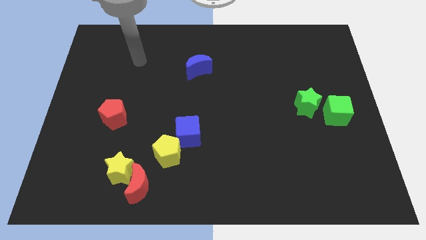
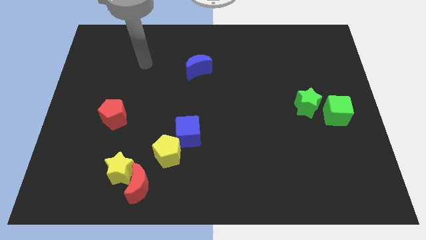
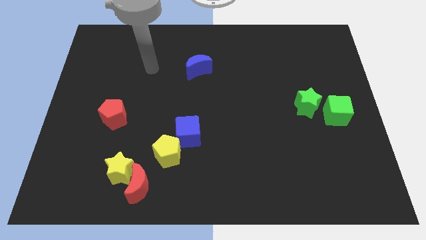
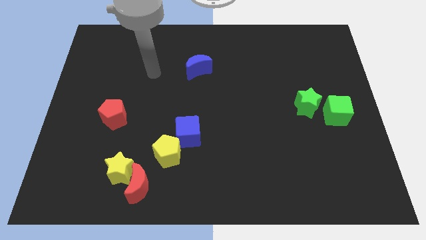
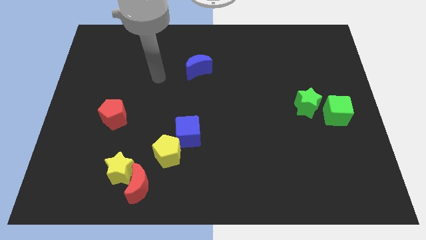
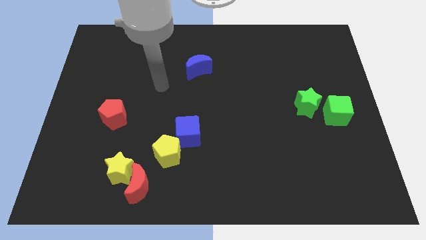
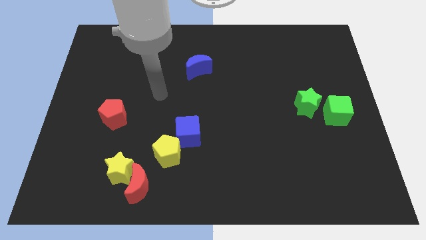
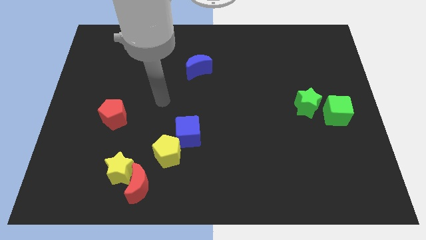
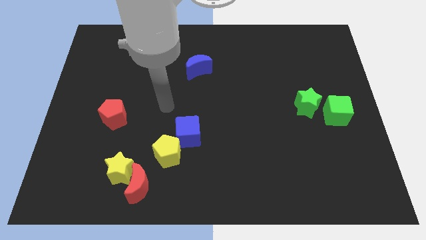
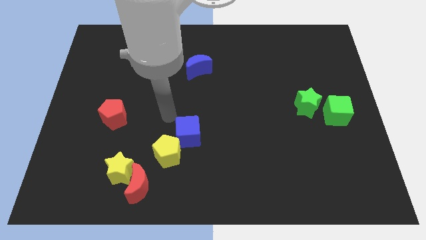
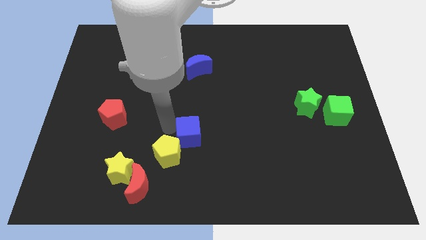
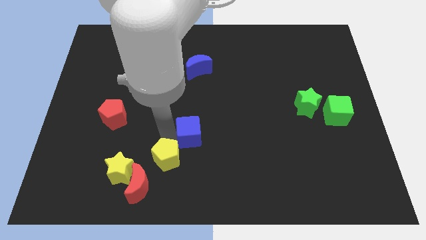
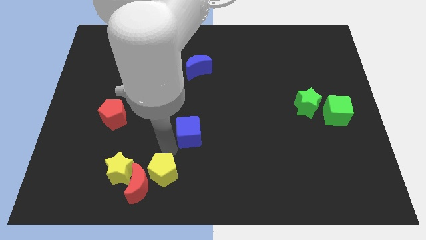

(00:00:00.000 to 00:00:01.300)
separate the blue cube from the yellow pentagon

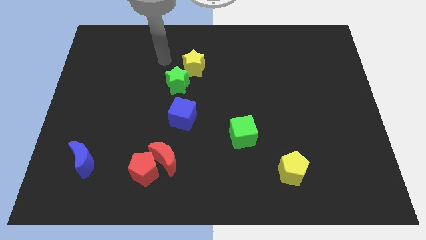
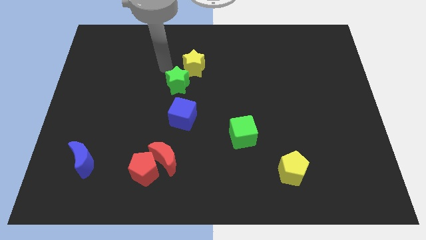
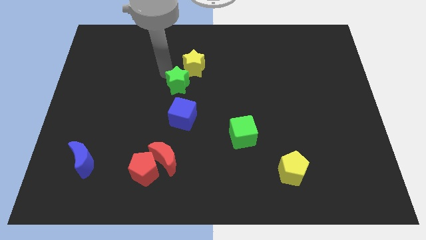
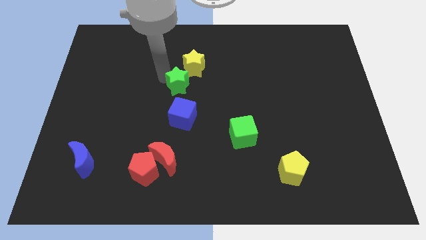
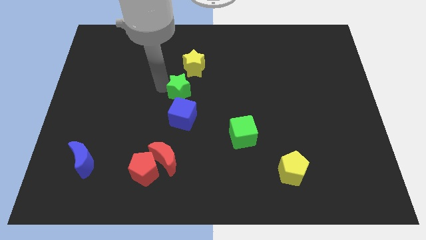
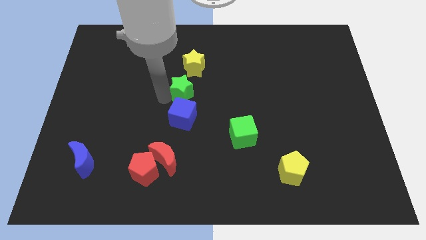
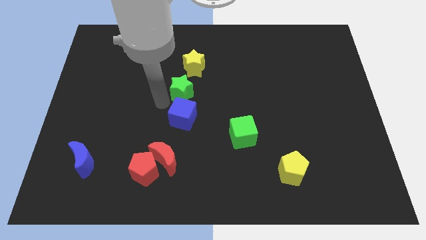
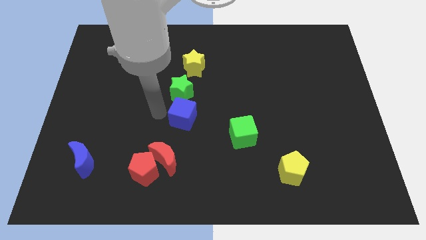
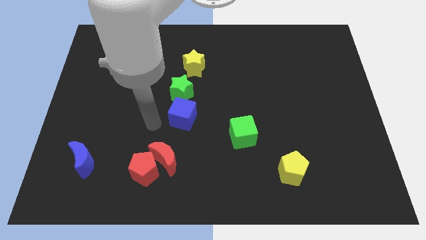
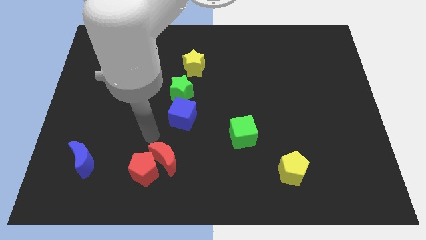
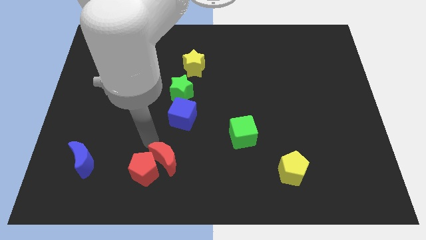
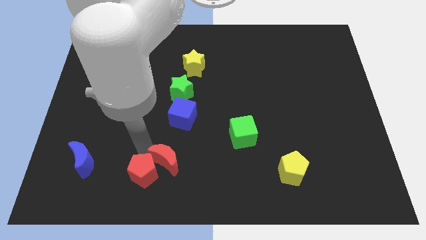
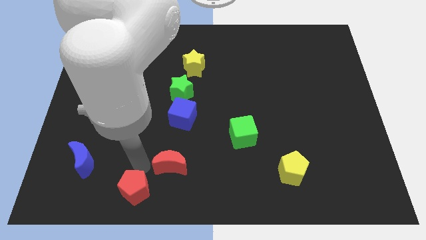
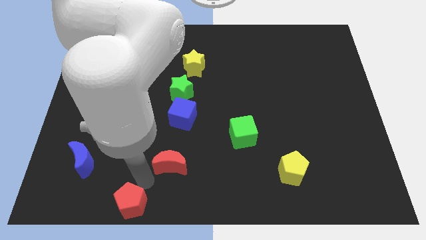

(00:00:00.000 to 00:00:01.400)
separate the red moon from the red pentagon

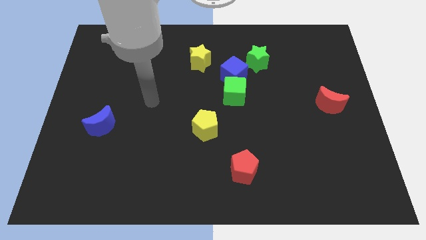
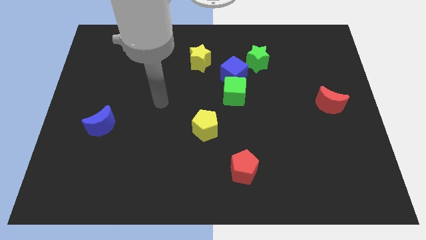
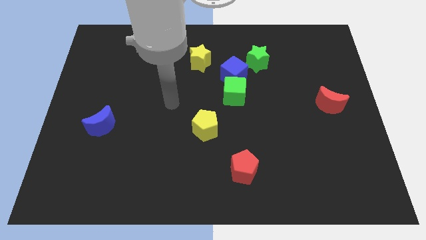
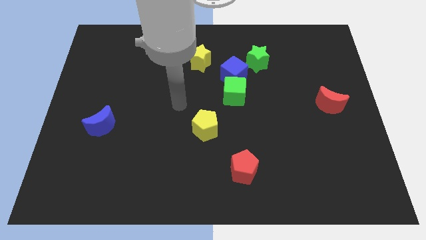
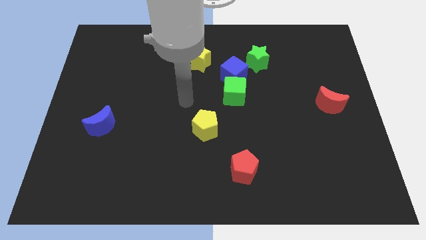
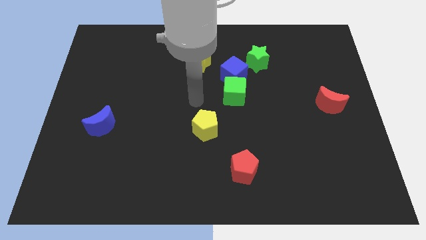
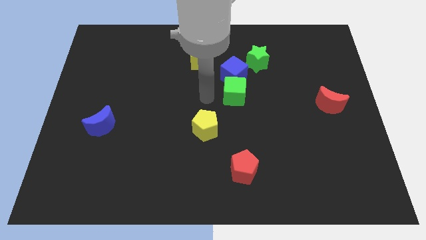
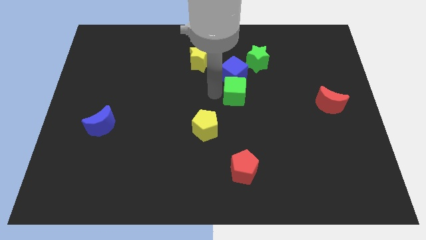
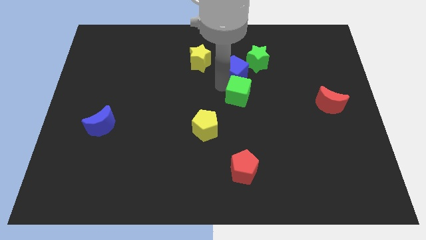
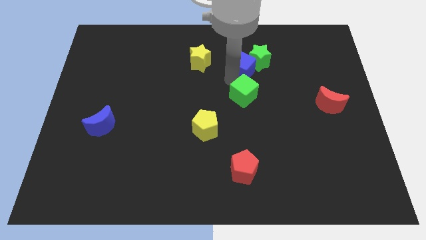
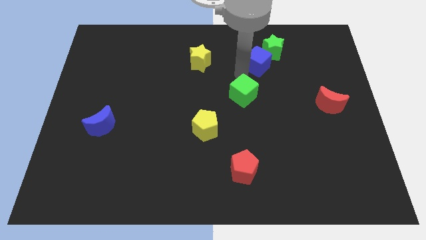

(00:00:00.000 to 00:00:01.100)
pull the green cube apart from the blue cube

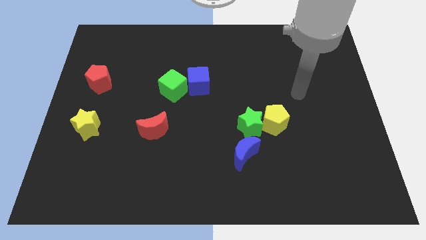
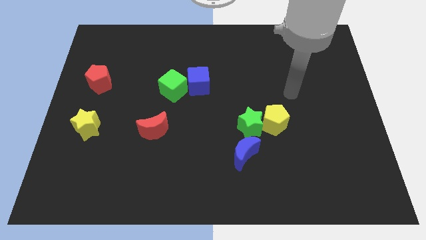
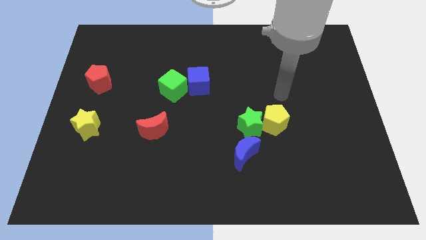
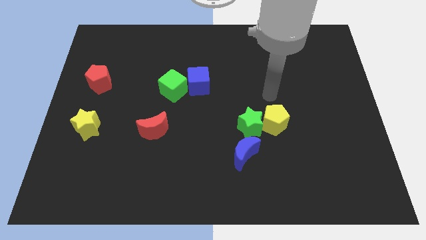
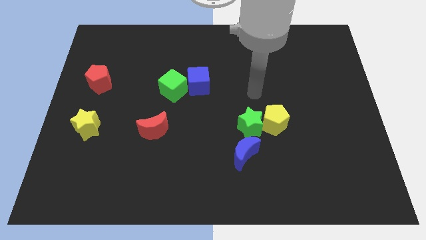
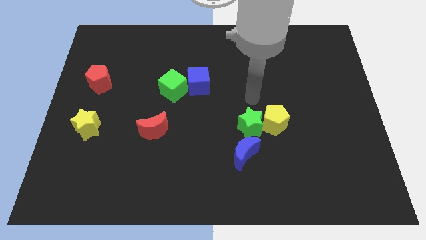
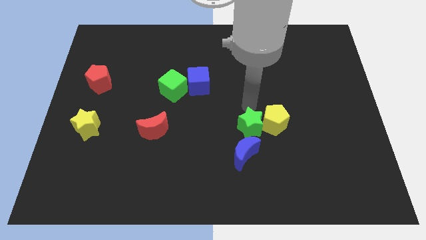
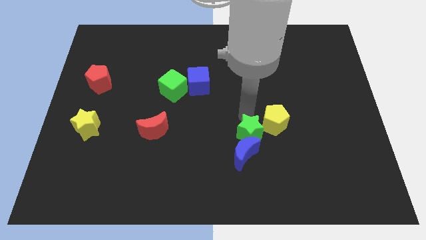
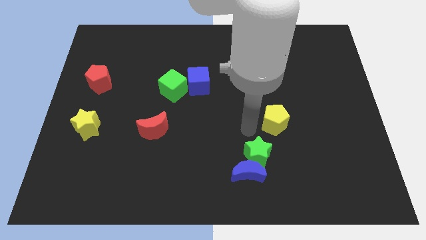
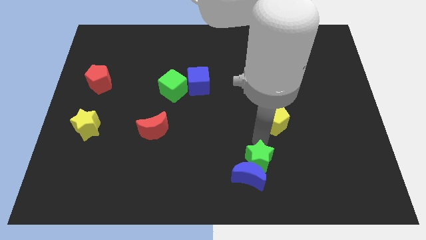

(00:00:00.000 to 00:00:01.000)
pull the yellow pentagon apart from the green star

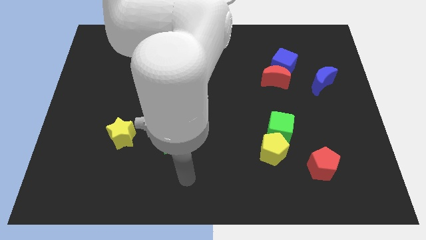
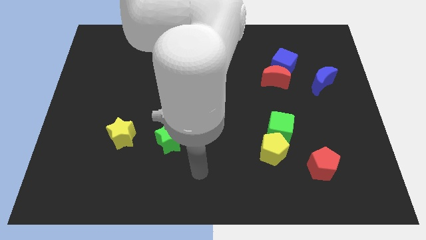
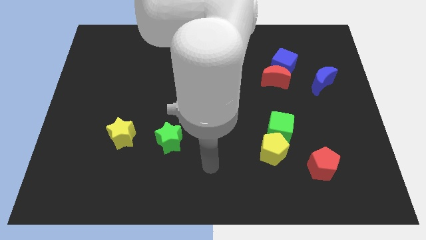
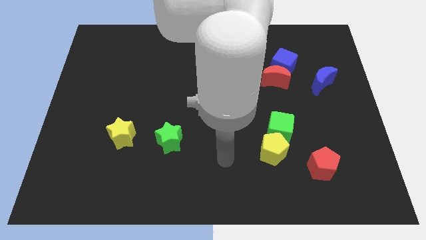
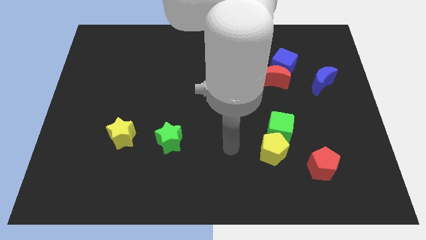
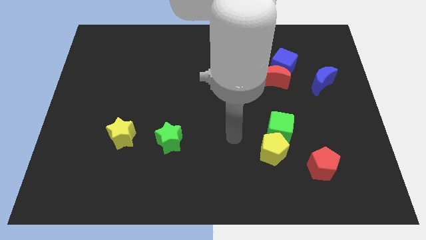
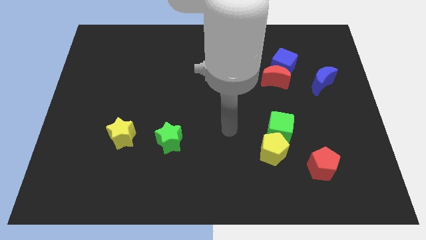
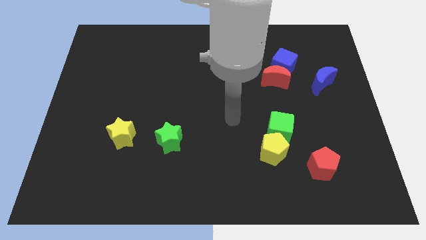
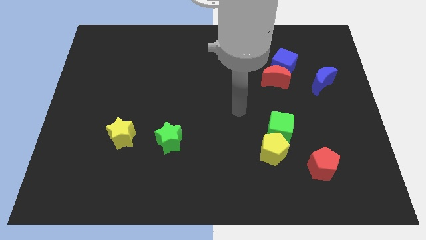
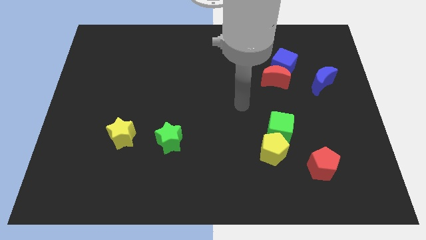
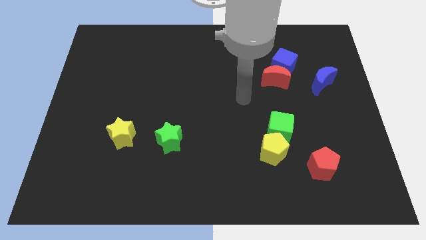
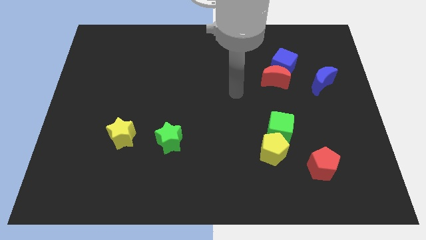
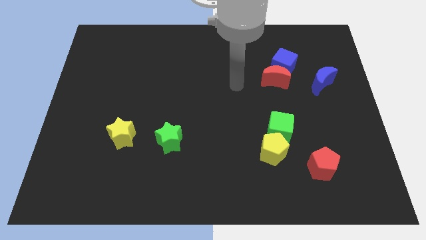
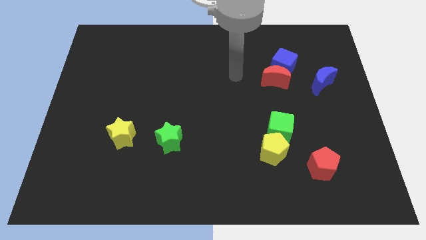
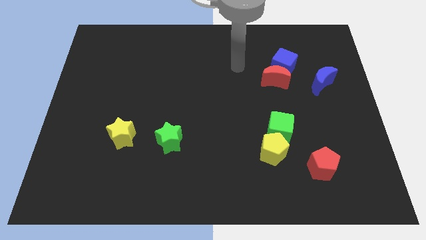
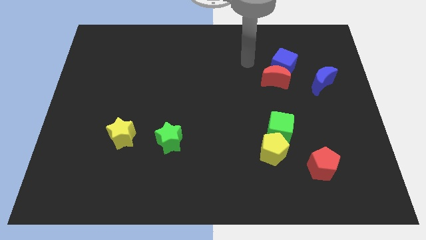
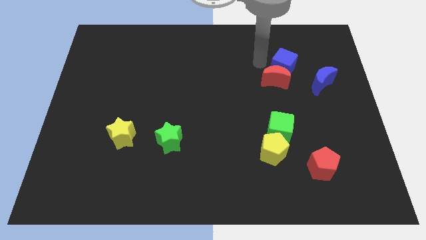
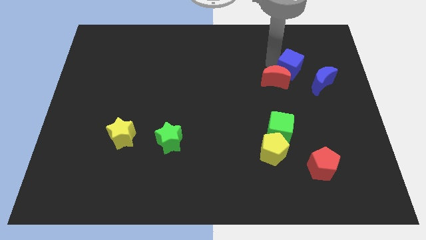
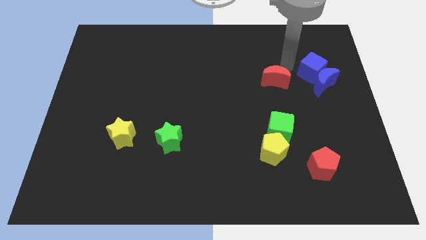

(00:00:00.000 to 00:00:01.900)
separate the red moon from the blue cube

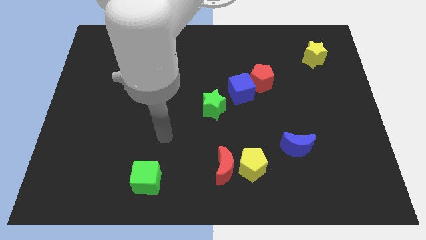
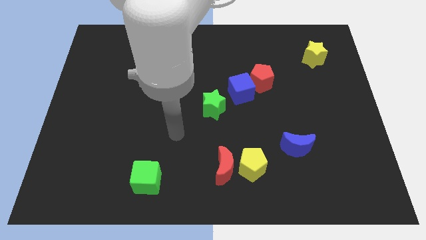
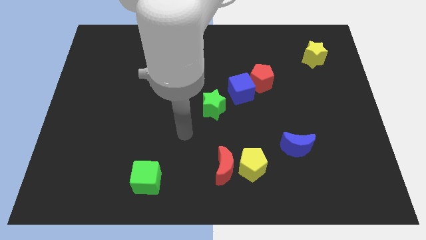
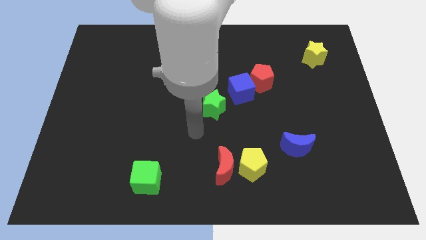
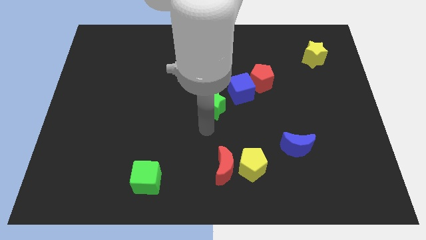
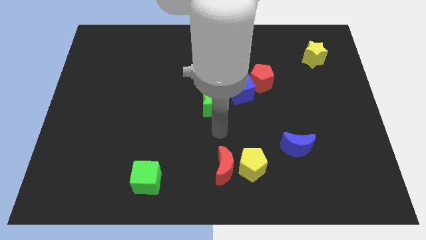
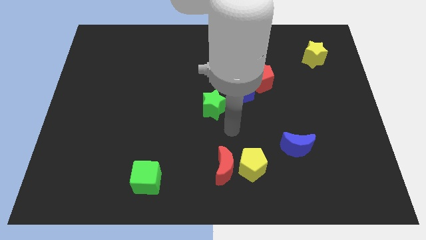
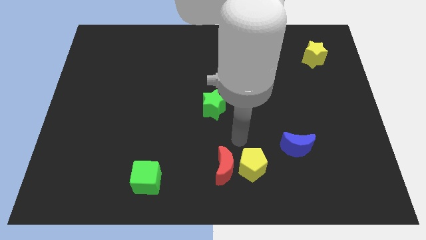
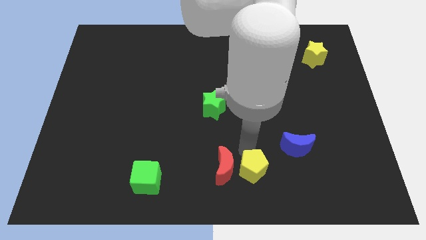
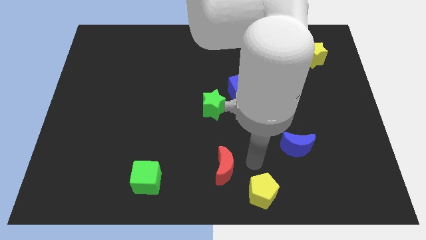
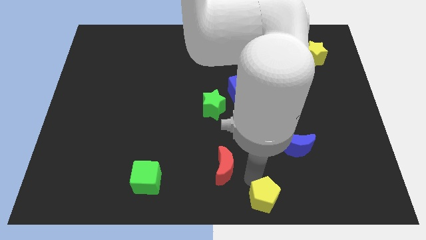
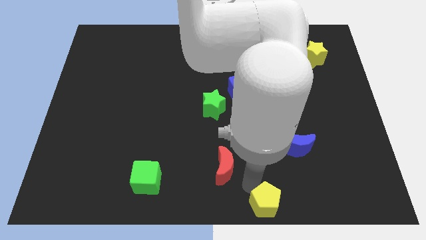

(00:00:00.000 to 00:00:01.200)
move the red moon away from the yellow pentagon

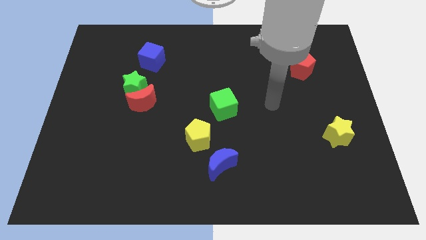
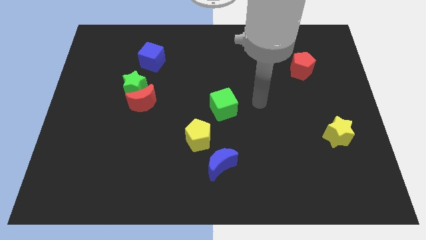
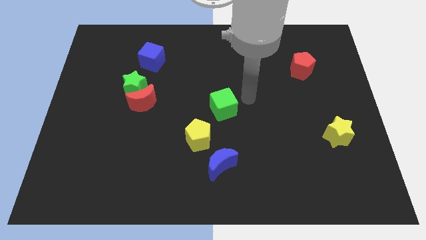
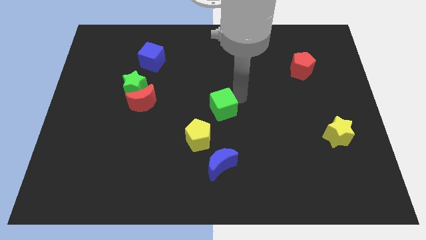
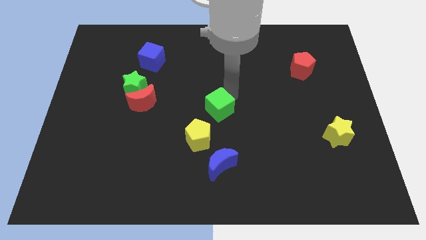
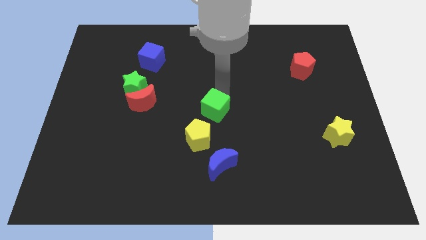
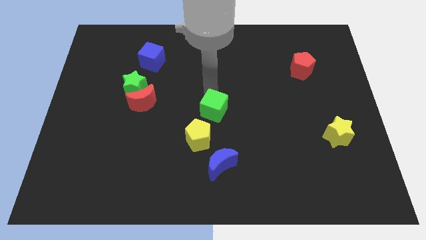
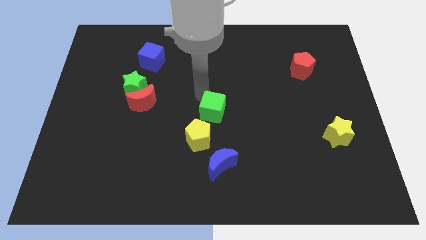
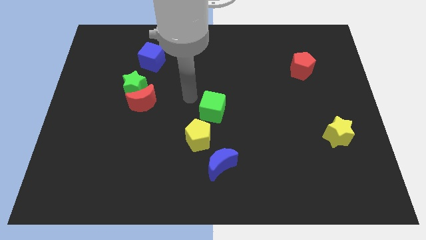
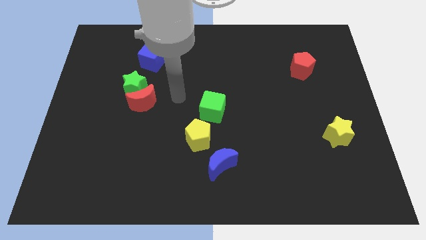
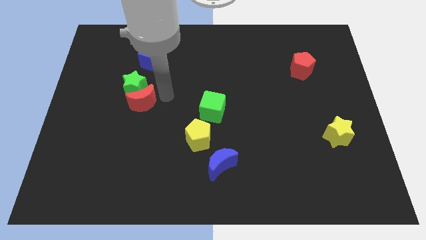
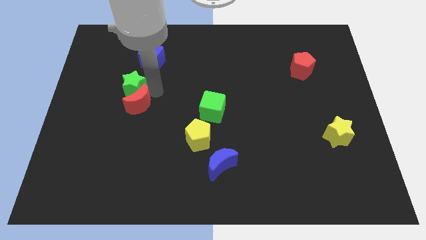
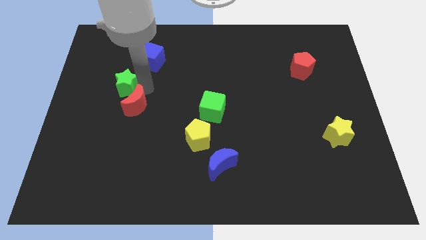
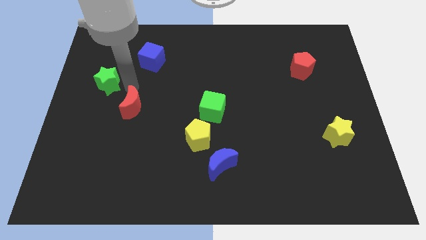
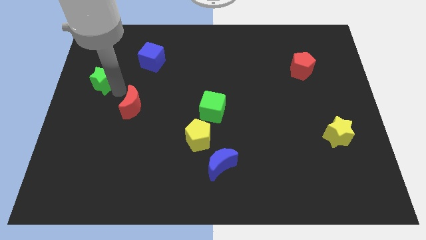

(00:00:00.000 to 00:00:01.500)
move the red moon away from the green star
